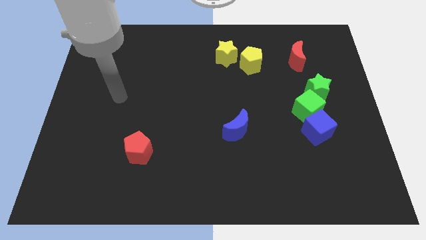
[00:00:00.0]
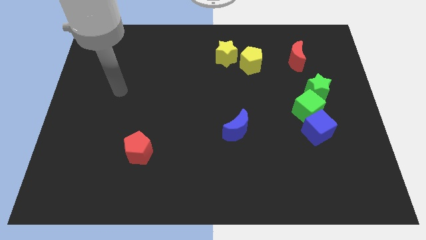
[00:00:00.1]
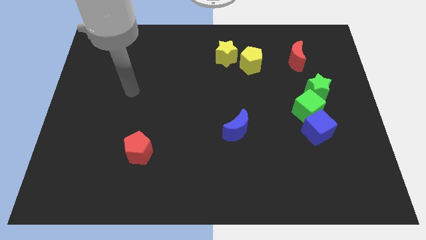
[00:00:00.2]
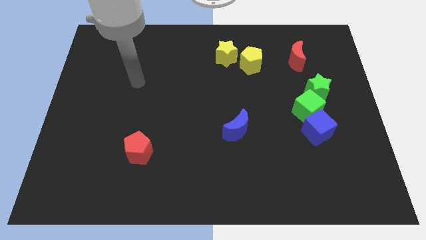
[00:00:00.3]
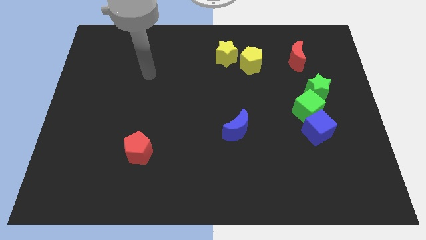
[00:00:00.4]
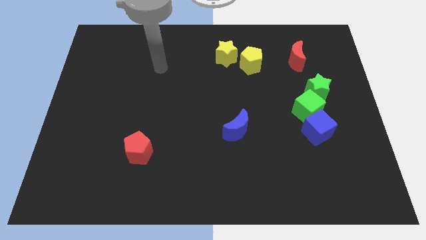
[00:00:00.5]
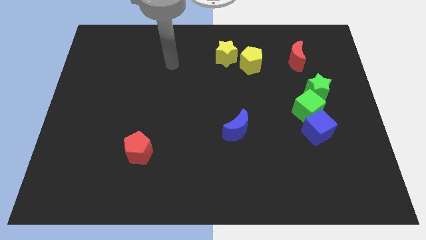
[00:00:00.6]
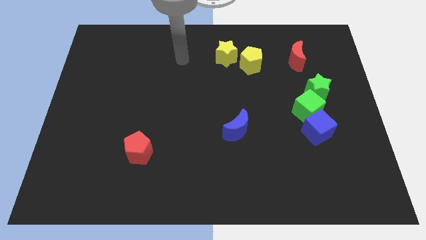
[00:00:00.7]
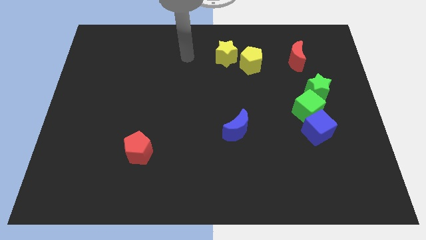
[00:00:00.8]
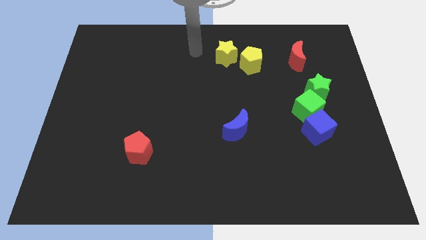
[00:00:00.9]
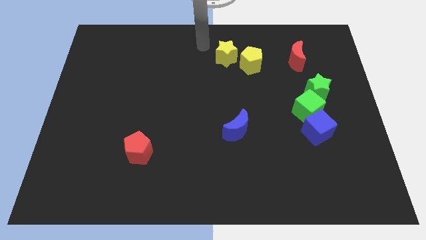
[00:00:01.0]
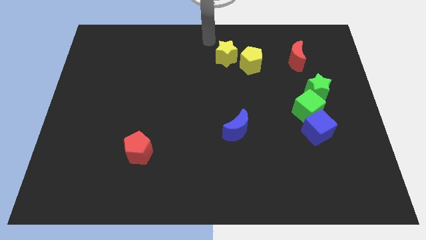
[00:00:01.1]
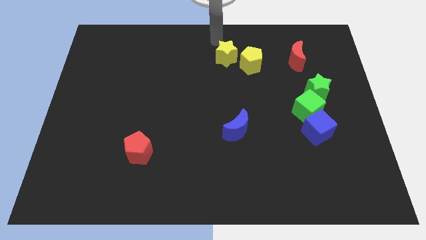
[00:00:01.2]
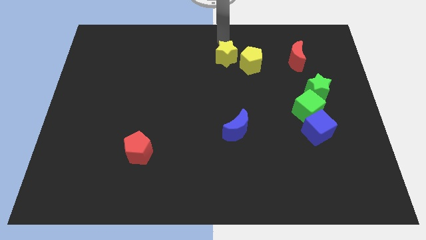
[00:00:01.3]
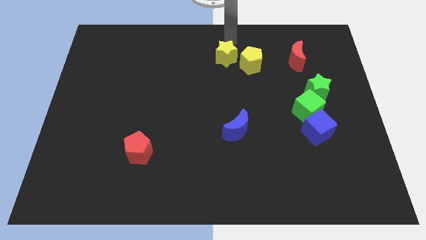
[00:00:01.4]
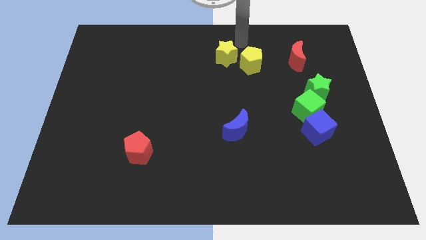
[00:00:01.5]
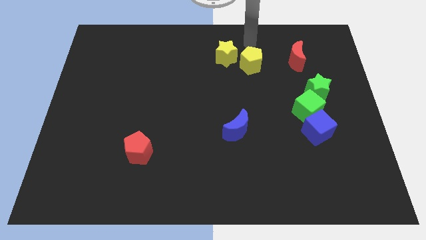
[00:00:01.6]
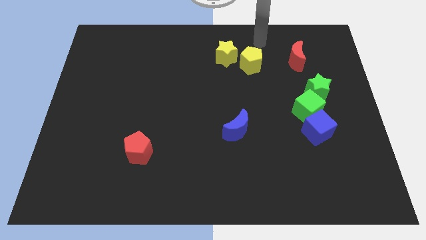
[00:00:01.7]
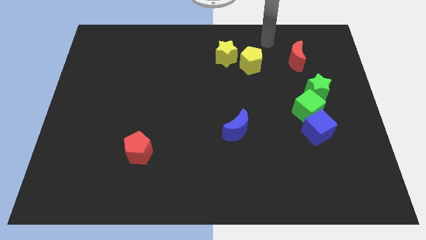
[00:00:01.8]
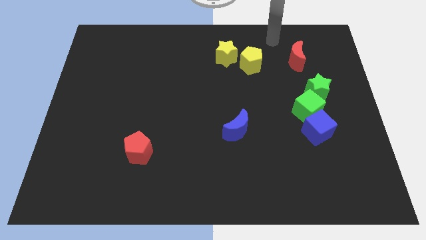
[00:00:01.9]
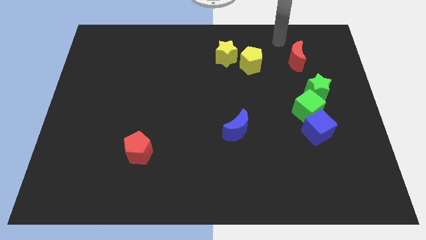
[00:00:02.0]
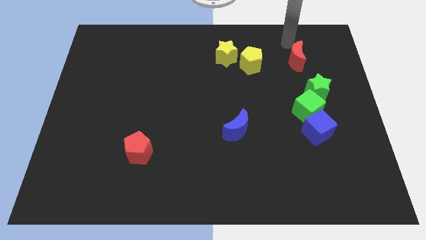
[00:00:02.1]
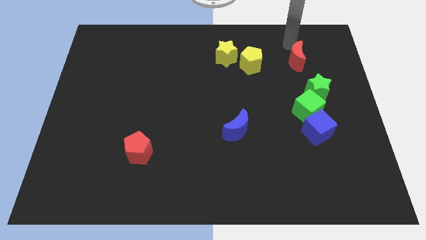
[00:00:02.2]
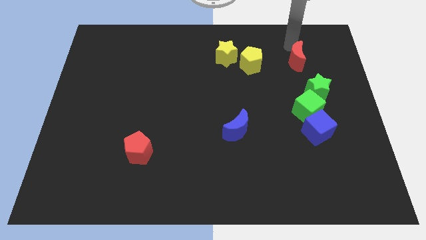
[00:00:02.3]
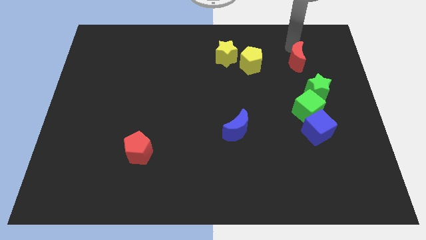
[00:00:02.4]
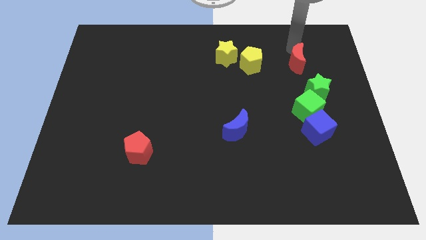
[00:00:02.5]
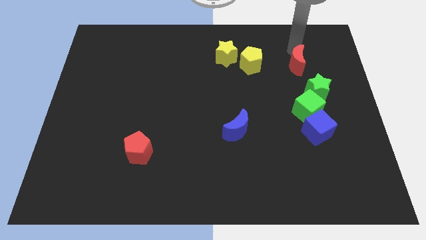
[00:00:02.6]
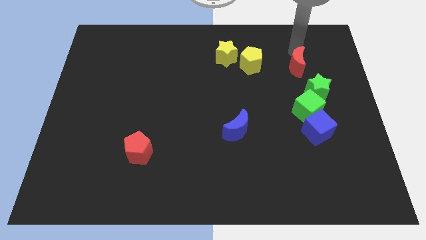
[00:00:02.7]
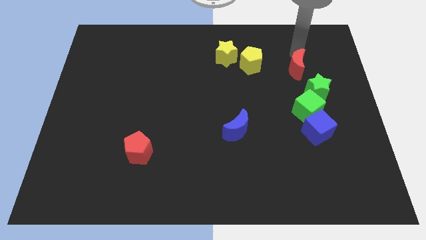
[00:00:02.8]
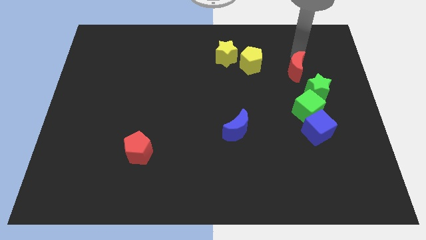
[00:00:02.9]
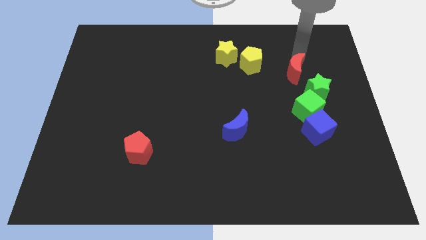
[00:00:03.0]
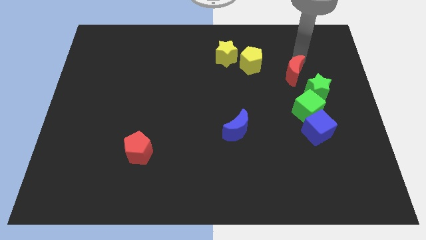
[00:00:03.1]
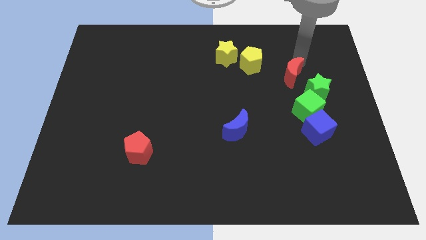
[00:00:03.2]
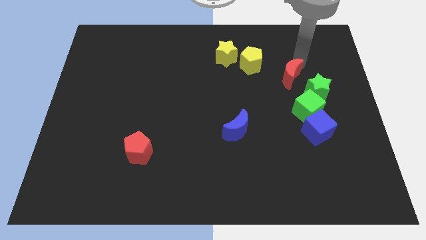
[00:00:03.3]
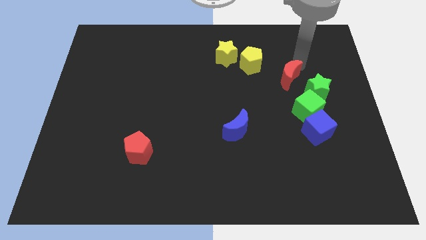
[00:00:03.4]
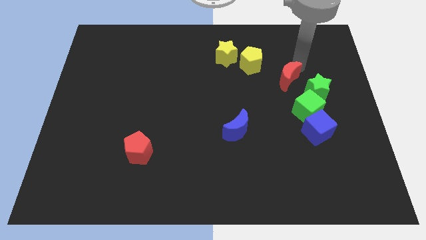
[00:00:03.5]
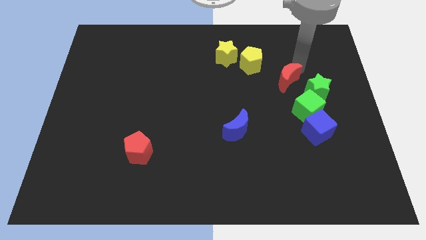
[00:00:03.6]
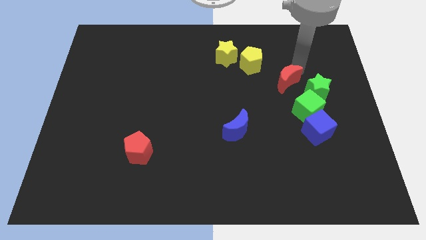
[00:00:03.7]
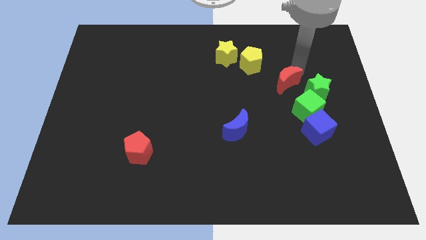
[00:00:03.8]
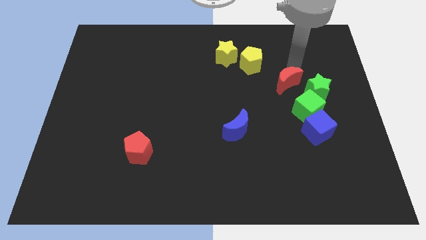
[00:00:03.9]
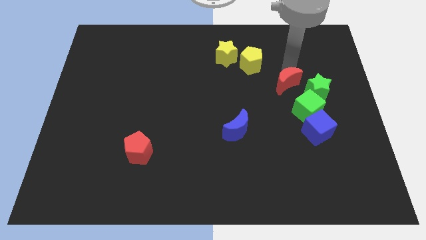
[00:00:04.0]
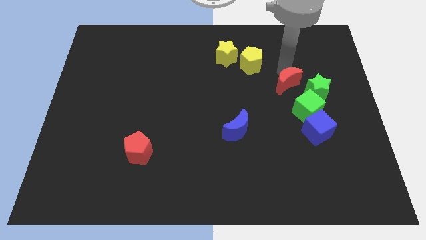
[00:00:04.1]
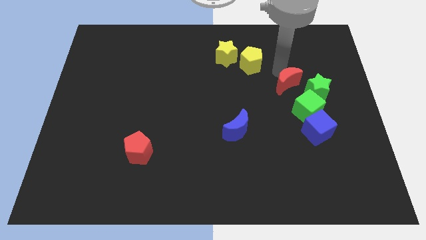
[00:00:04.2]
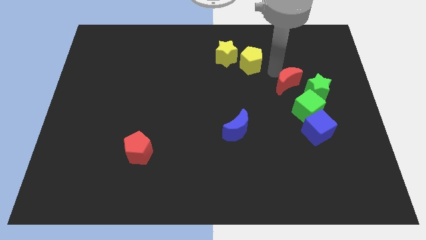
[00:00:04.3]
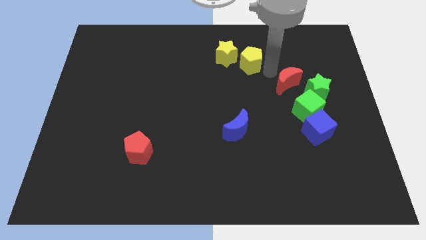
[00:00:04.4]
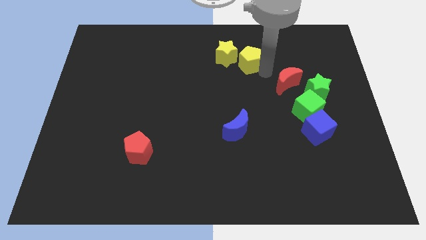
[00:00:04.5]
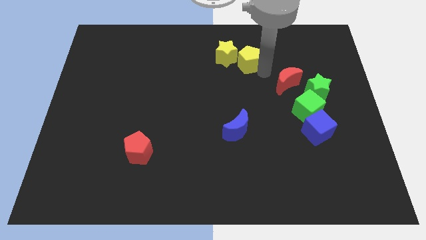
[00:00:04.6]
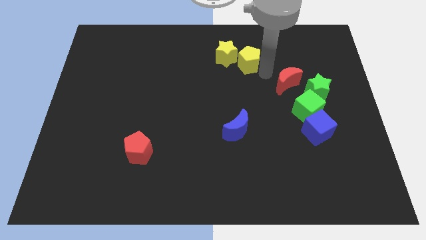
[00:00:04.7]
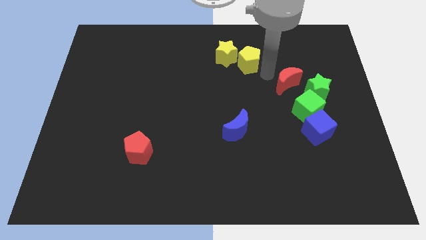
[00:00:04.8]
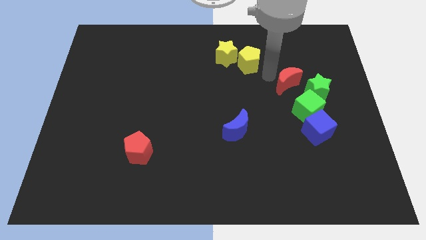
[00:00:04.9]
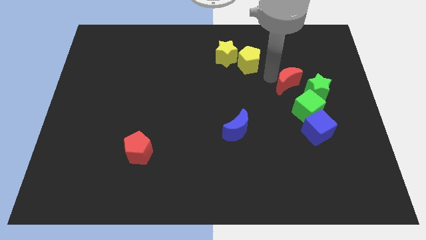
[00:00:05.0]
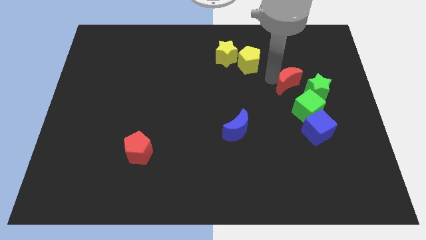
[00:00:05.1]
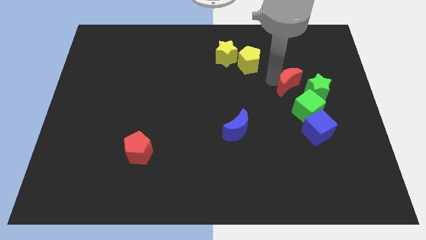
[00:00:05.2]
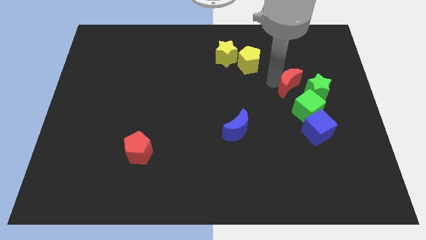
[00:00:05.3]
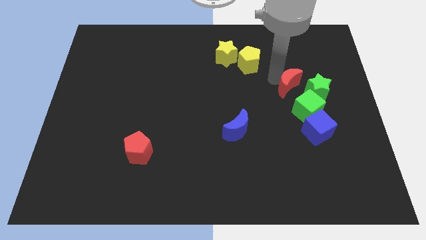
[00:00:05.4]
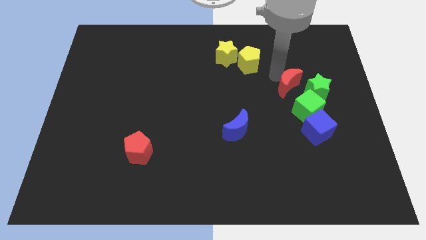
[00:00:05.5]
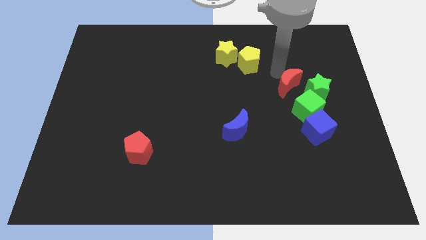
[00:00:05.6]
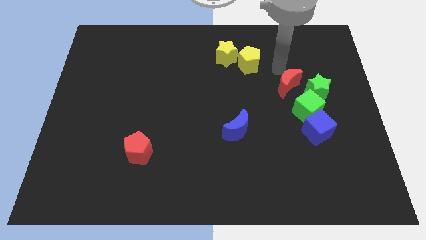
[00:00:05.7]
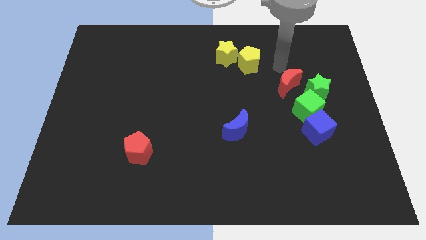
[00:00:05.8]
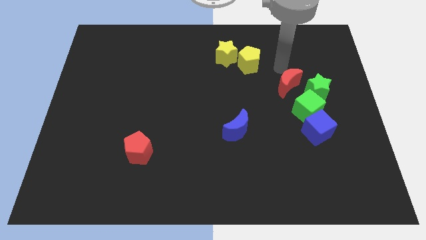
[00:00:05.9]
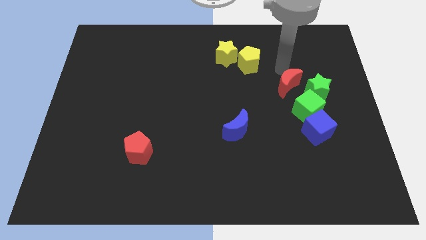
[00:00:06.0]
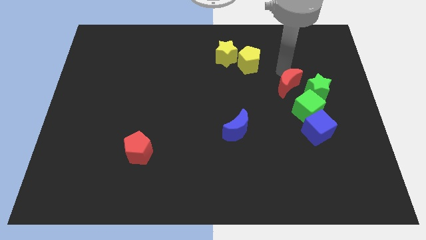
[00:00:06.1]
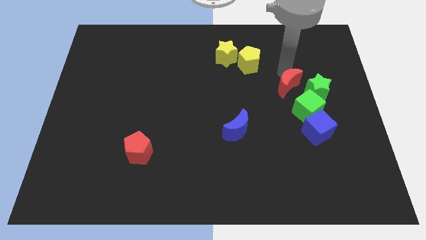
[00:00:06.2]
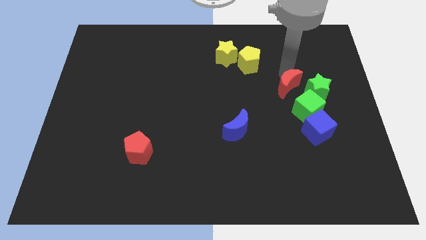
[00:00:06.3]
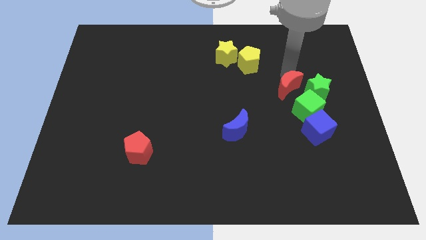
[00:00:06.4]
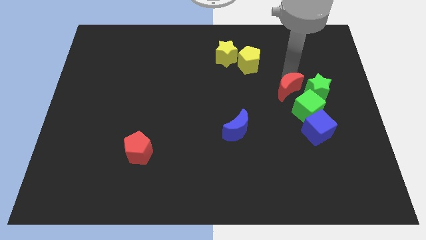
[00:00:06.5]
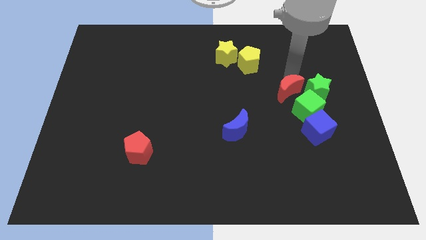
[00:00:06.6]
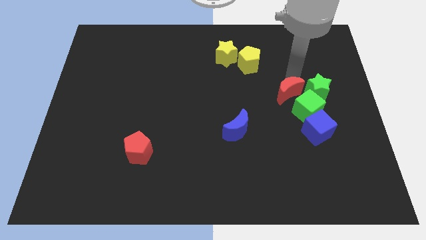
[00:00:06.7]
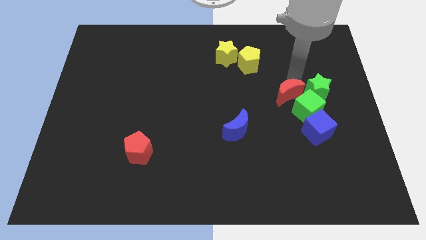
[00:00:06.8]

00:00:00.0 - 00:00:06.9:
push the red moon to the top left side of the blue cube

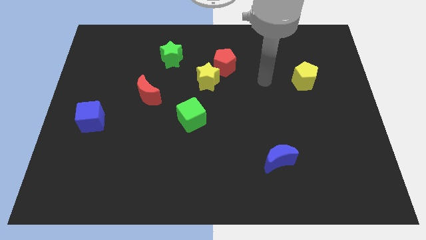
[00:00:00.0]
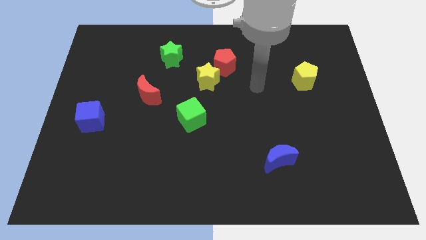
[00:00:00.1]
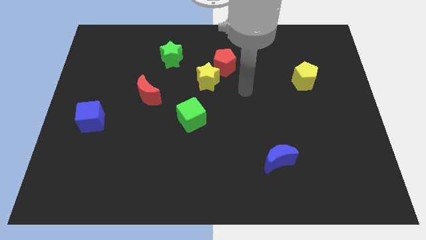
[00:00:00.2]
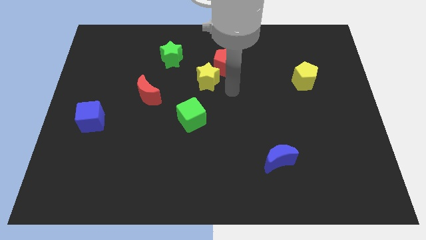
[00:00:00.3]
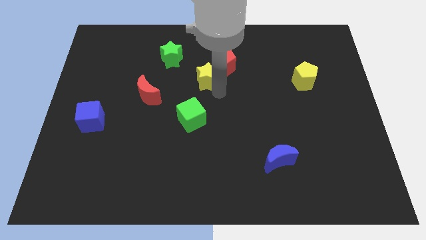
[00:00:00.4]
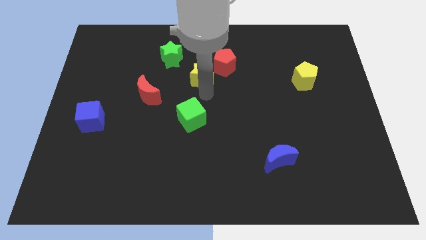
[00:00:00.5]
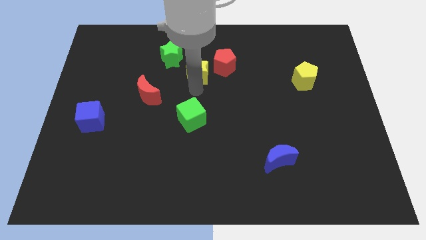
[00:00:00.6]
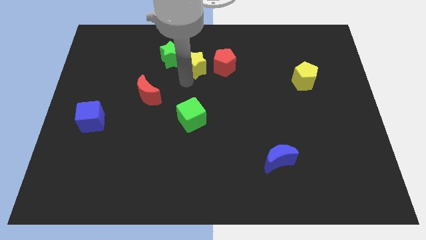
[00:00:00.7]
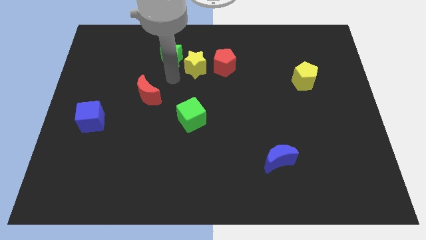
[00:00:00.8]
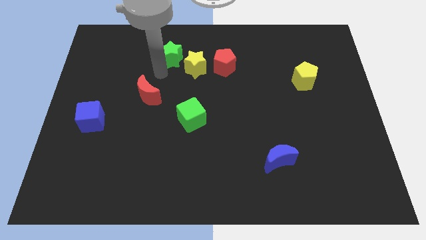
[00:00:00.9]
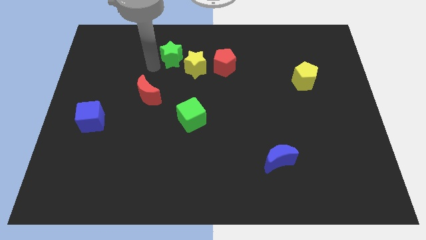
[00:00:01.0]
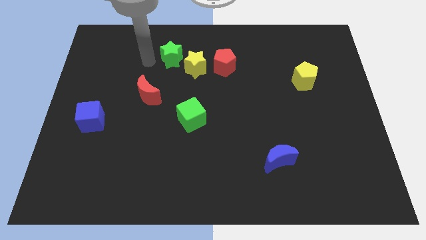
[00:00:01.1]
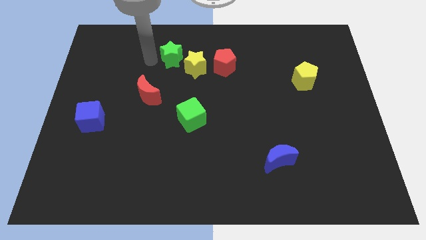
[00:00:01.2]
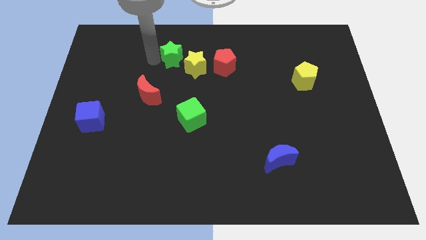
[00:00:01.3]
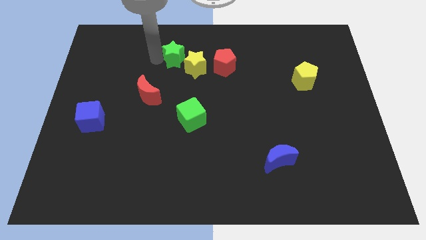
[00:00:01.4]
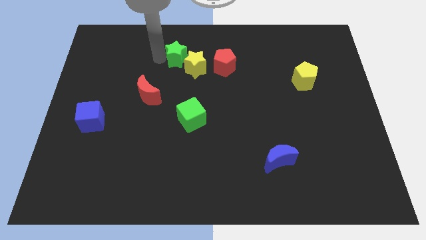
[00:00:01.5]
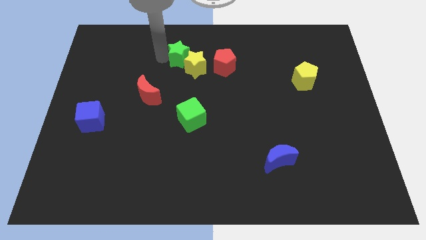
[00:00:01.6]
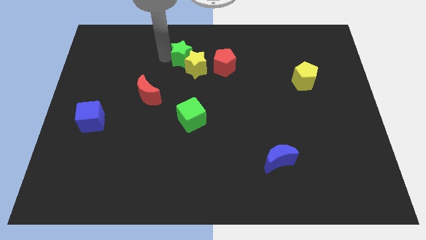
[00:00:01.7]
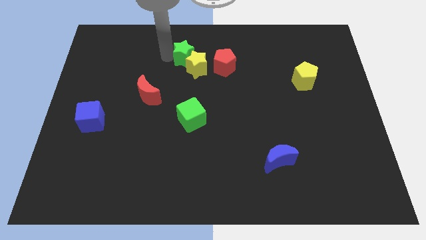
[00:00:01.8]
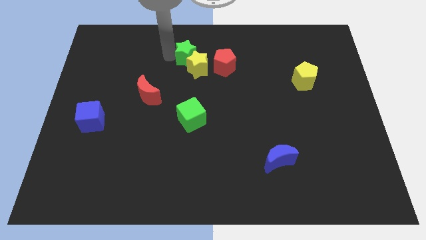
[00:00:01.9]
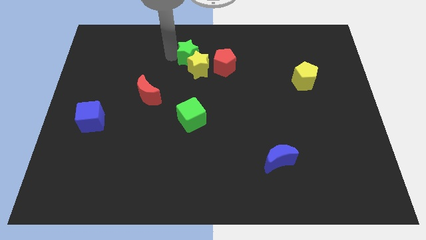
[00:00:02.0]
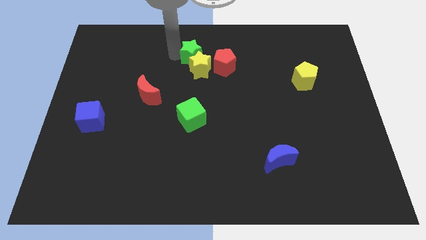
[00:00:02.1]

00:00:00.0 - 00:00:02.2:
move the green star to the top right side of the yellow star
